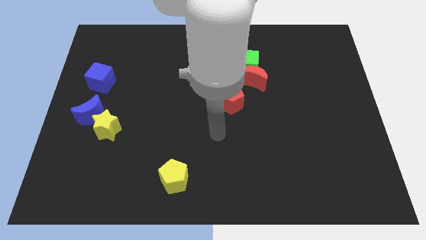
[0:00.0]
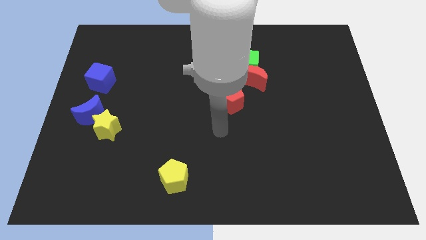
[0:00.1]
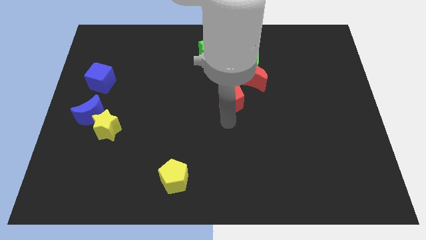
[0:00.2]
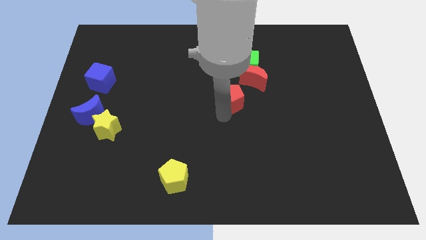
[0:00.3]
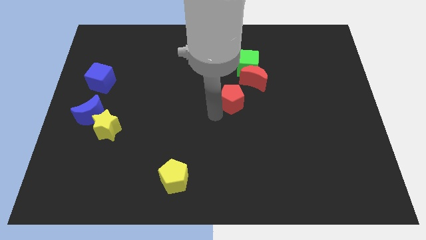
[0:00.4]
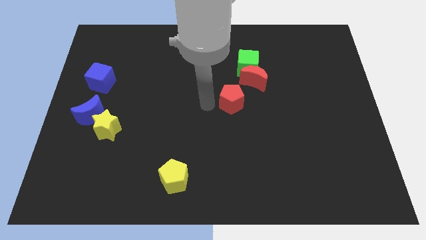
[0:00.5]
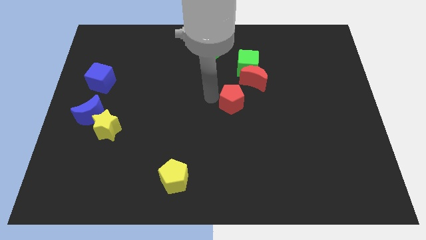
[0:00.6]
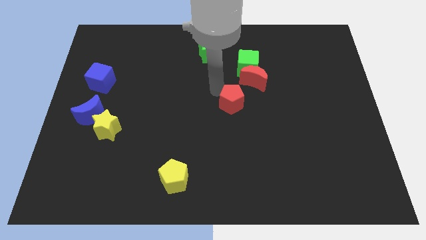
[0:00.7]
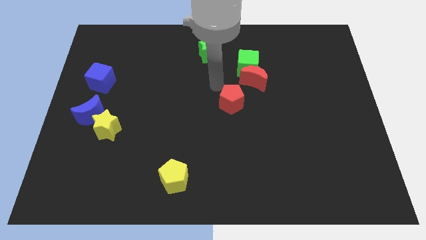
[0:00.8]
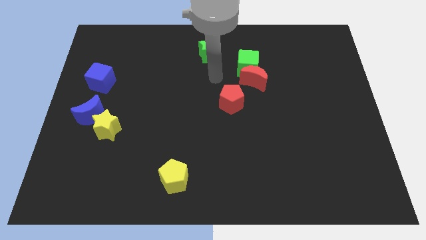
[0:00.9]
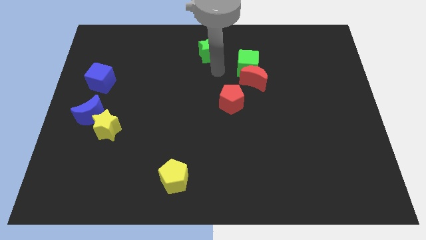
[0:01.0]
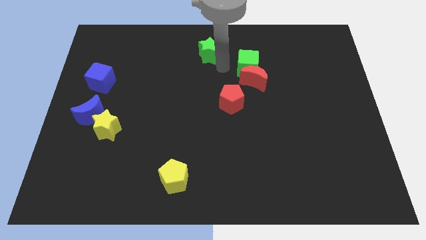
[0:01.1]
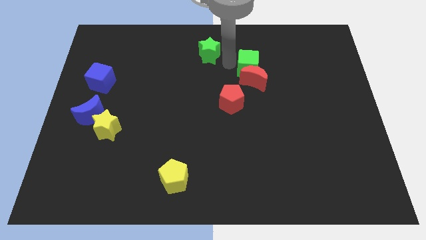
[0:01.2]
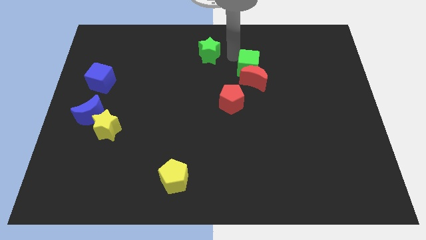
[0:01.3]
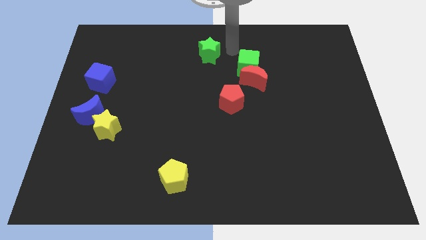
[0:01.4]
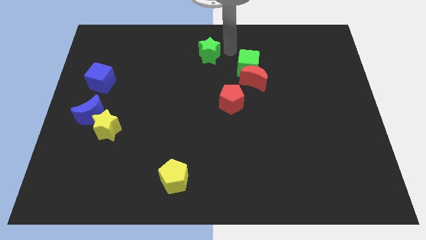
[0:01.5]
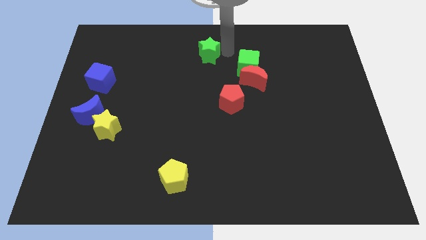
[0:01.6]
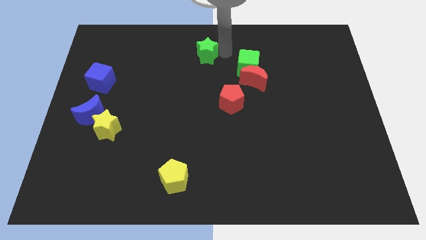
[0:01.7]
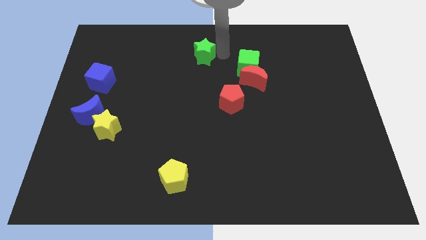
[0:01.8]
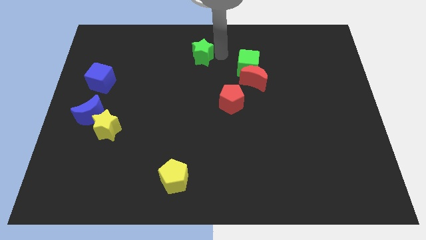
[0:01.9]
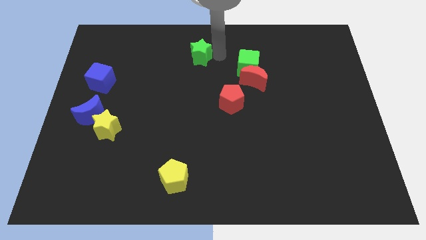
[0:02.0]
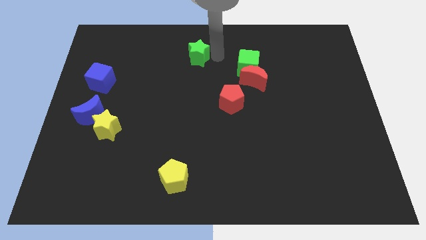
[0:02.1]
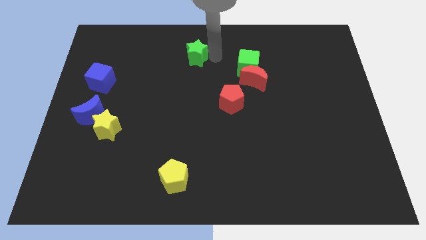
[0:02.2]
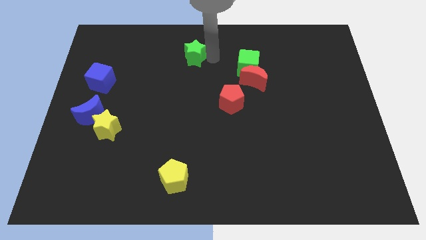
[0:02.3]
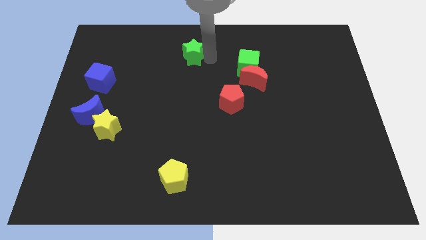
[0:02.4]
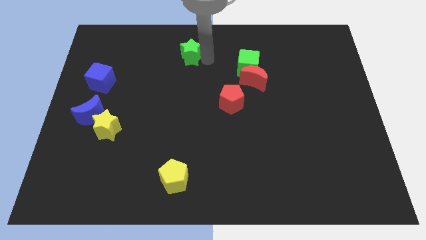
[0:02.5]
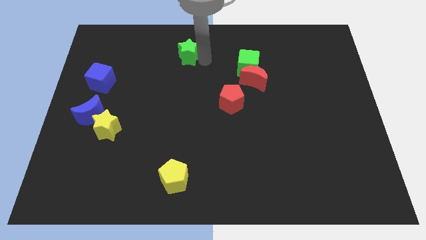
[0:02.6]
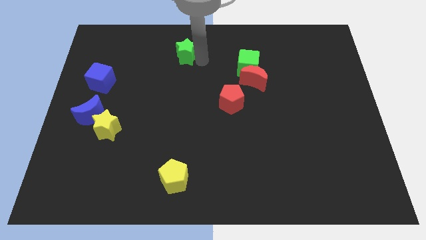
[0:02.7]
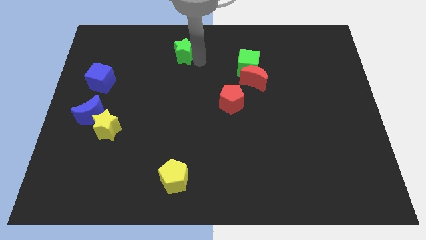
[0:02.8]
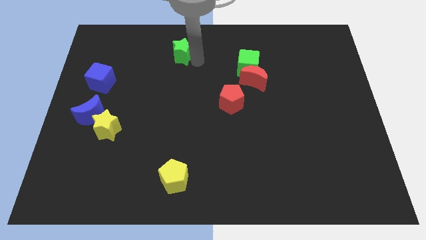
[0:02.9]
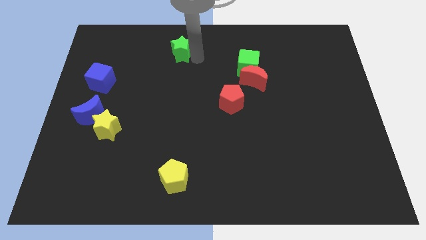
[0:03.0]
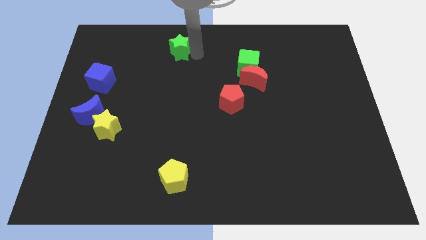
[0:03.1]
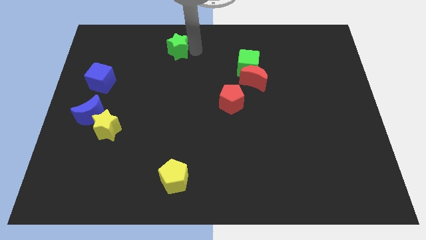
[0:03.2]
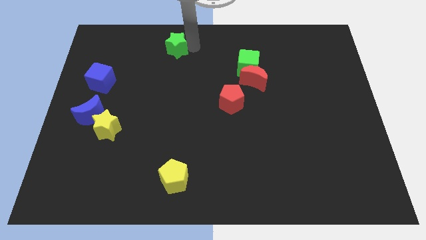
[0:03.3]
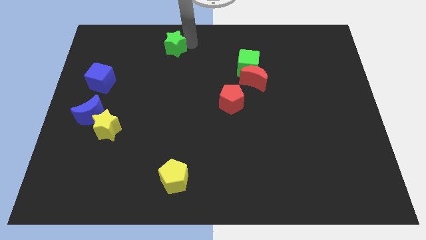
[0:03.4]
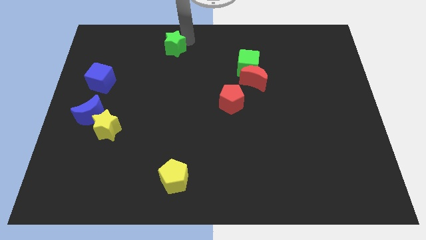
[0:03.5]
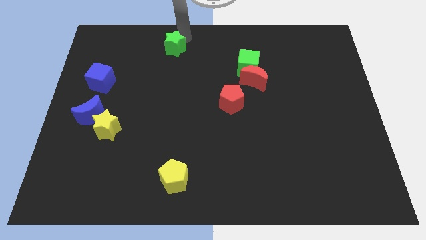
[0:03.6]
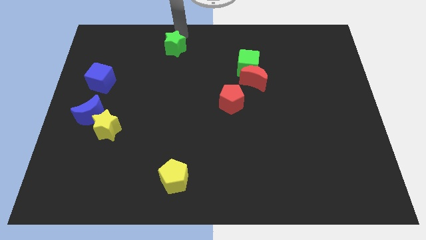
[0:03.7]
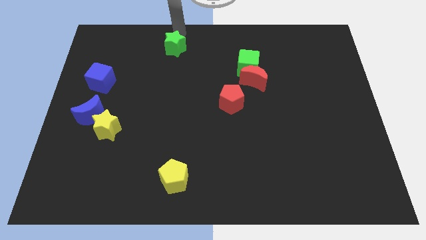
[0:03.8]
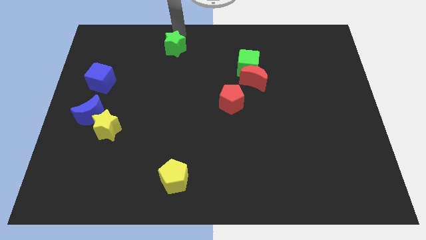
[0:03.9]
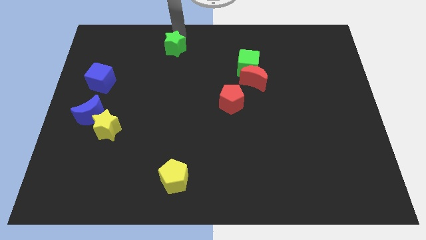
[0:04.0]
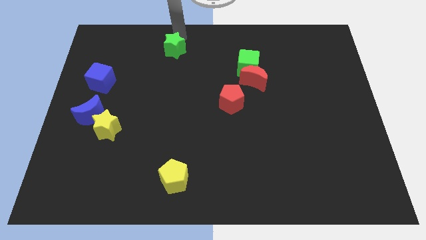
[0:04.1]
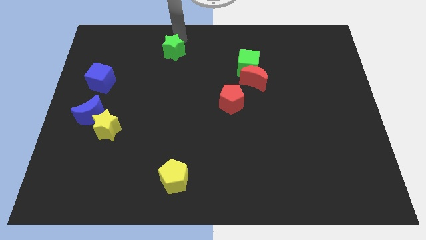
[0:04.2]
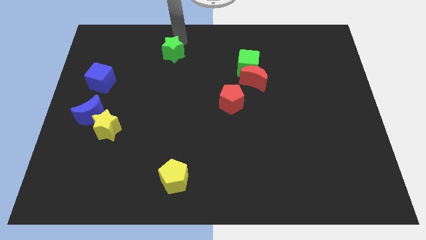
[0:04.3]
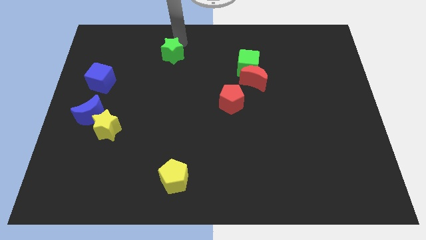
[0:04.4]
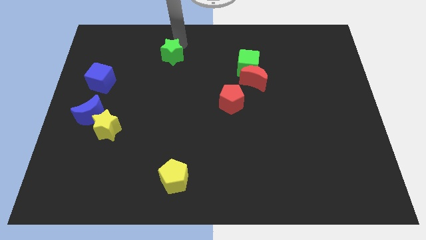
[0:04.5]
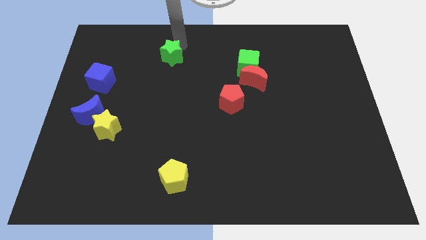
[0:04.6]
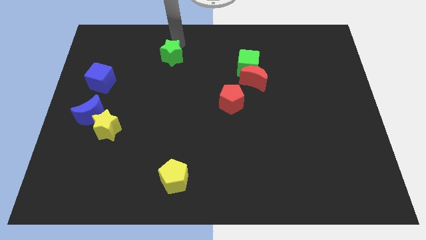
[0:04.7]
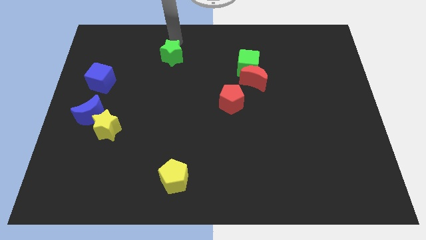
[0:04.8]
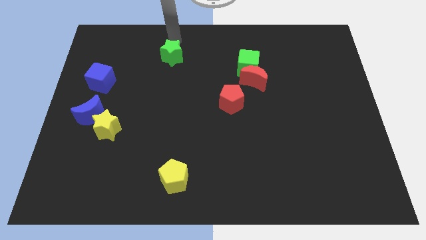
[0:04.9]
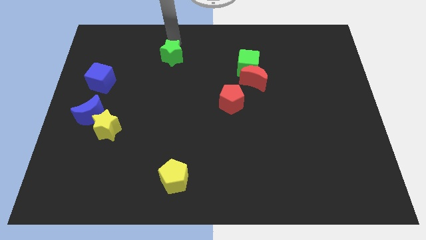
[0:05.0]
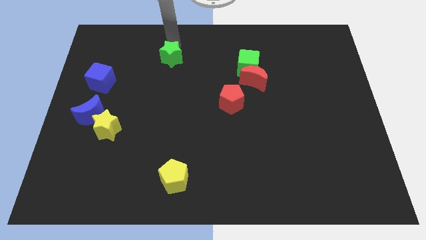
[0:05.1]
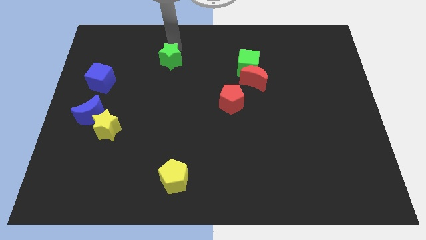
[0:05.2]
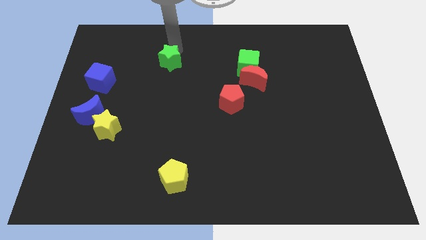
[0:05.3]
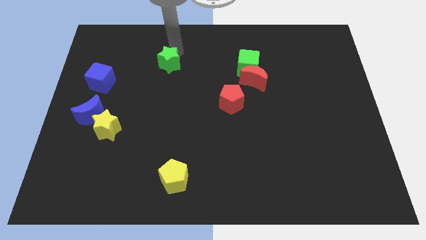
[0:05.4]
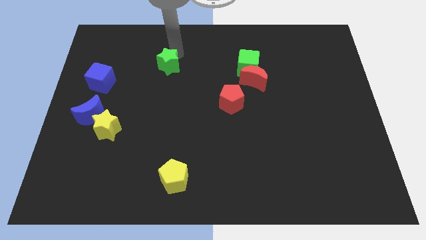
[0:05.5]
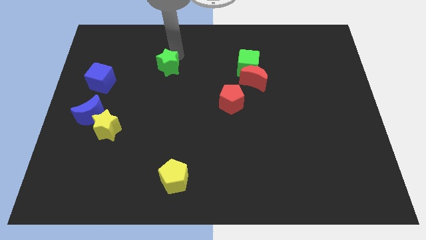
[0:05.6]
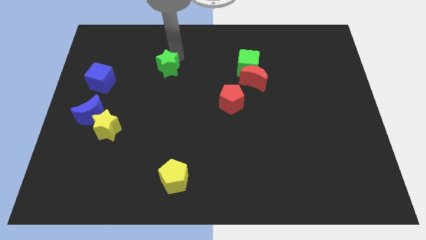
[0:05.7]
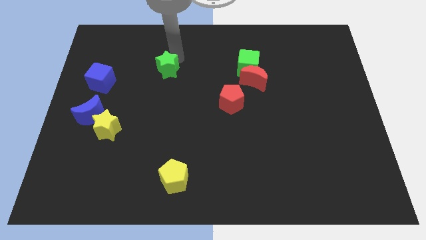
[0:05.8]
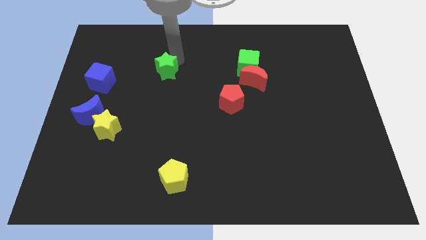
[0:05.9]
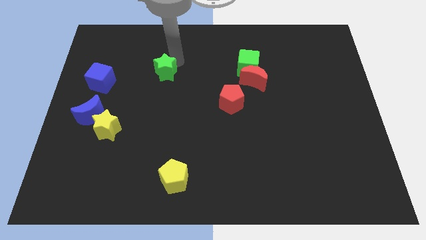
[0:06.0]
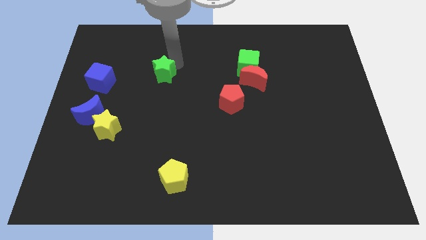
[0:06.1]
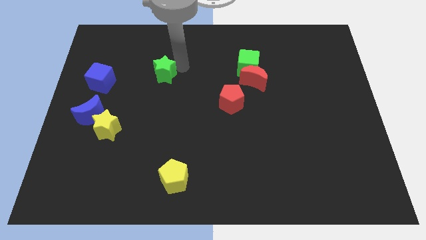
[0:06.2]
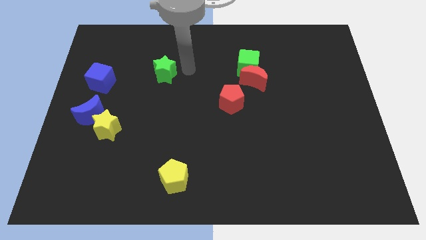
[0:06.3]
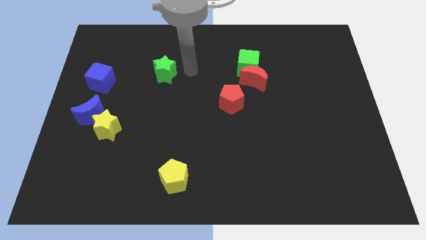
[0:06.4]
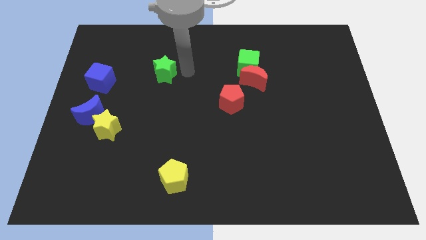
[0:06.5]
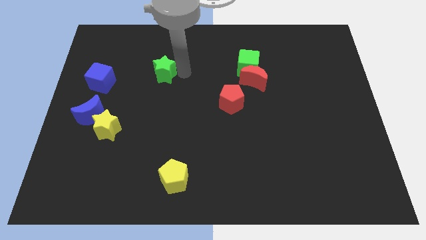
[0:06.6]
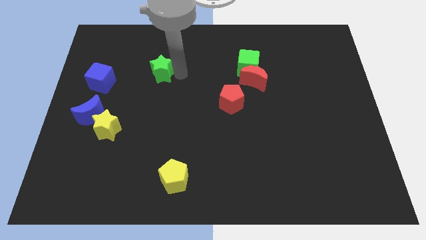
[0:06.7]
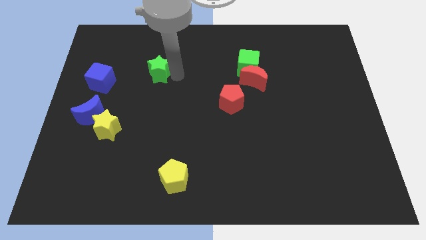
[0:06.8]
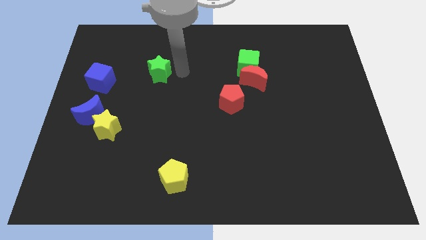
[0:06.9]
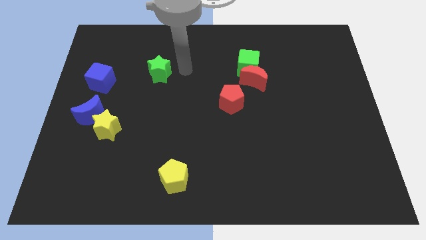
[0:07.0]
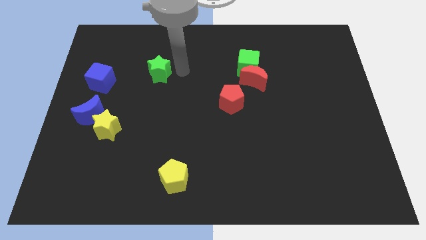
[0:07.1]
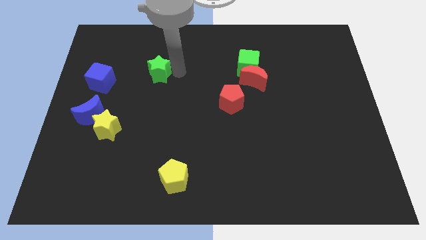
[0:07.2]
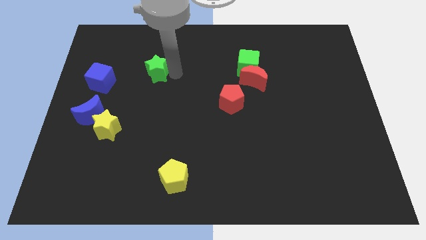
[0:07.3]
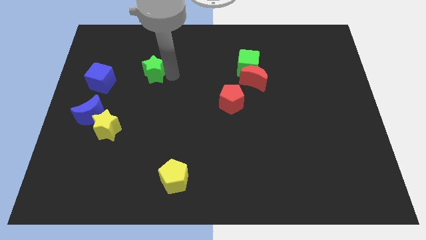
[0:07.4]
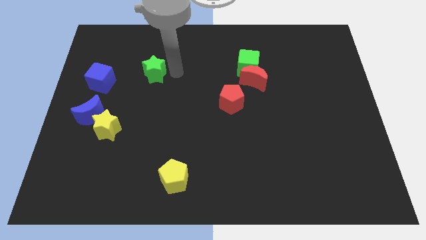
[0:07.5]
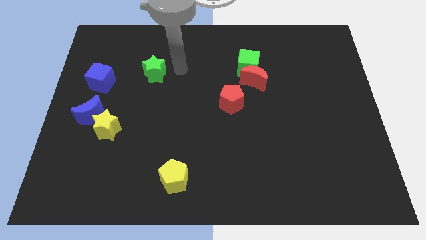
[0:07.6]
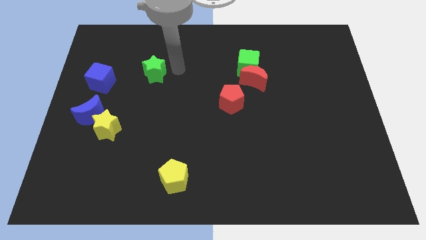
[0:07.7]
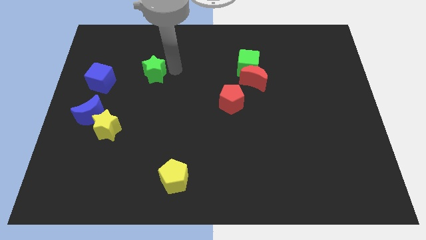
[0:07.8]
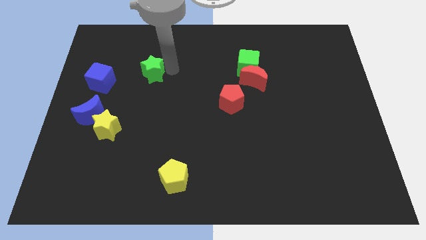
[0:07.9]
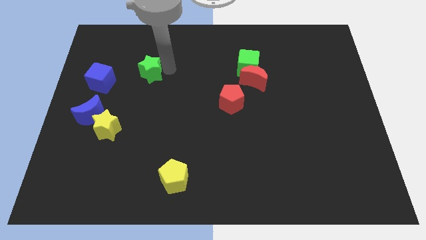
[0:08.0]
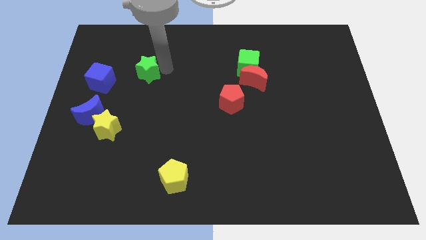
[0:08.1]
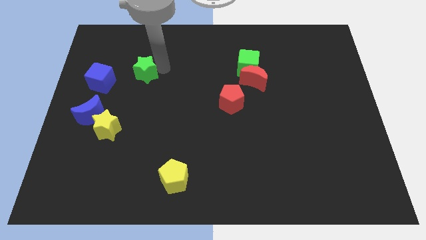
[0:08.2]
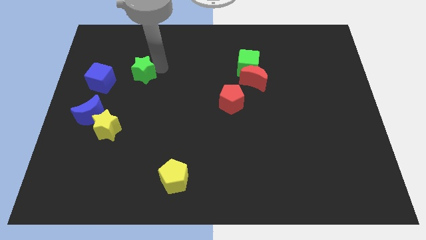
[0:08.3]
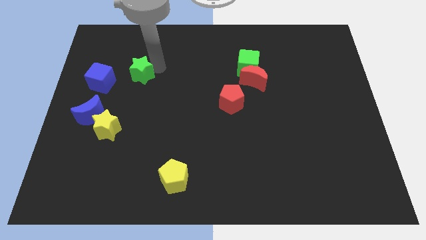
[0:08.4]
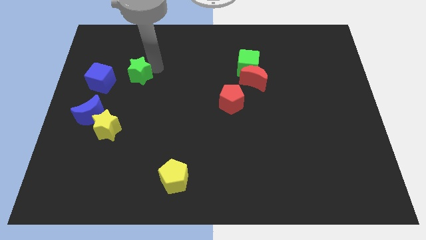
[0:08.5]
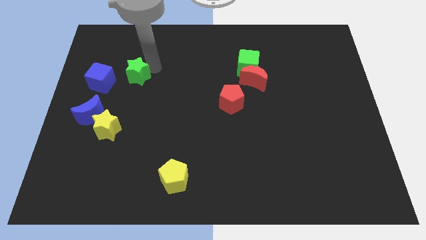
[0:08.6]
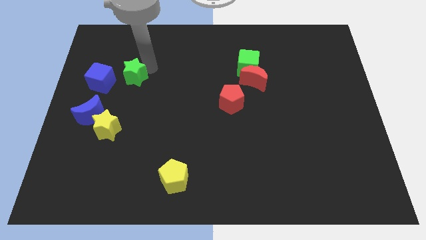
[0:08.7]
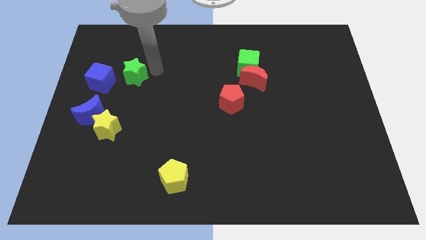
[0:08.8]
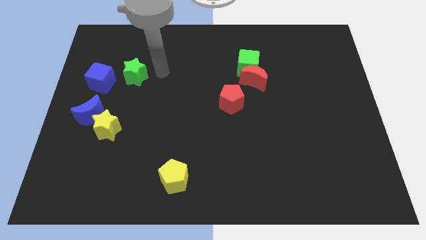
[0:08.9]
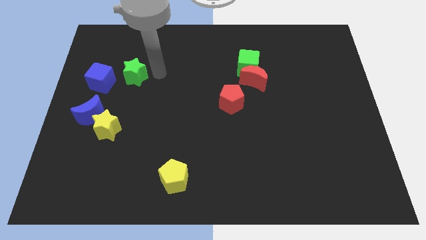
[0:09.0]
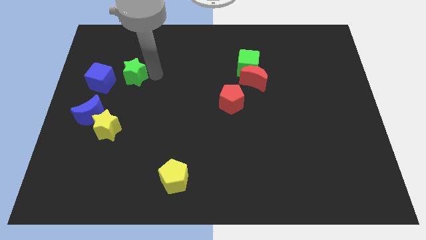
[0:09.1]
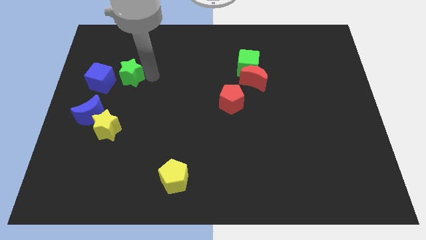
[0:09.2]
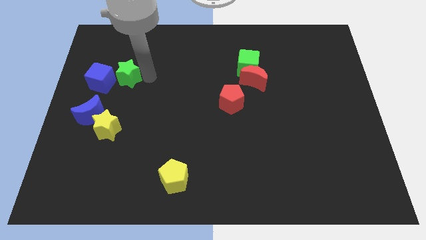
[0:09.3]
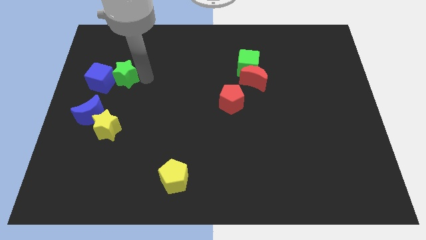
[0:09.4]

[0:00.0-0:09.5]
move the green star next to the blue cube
